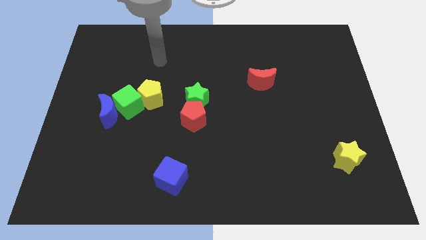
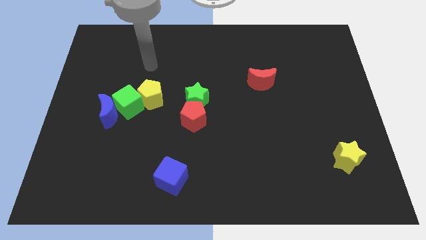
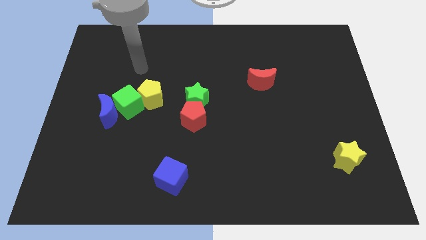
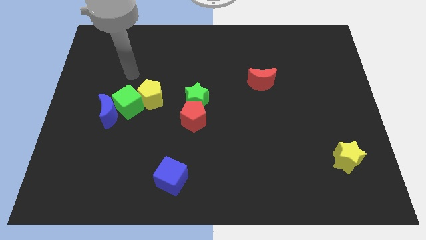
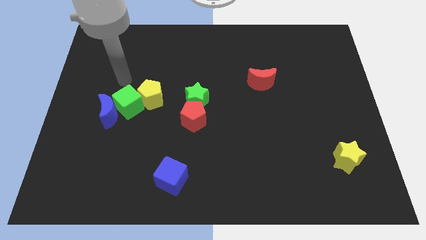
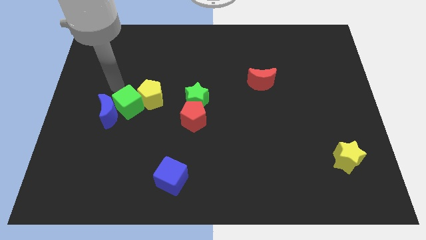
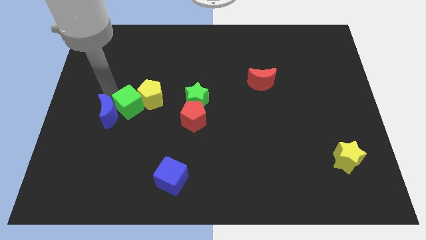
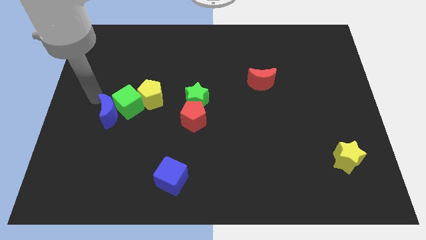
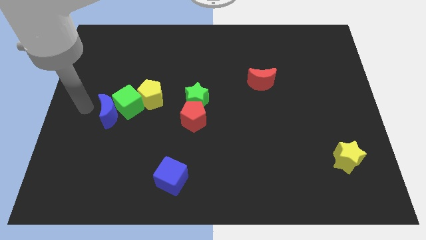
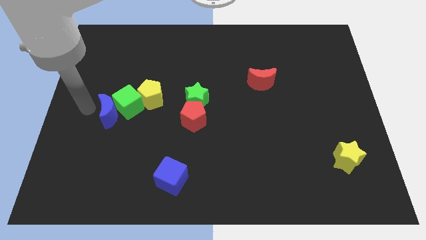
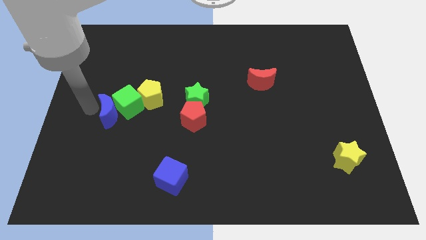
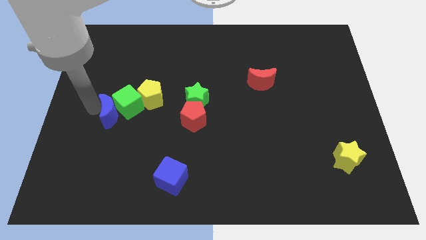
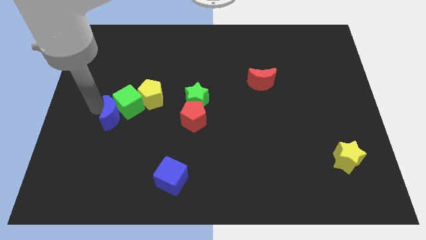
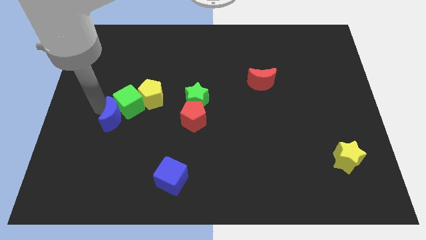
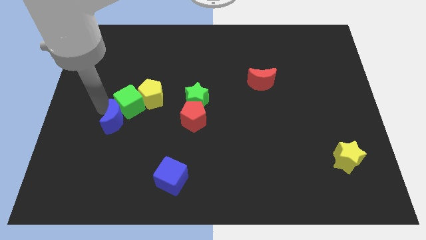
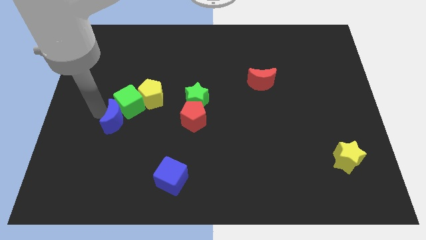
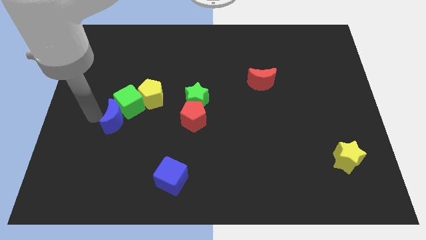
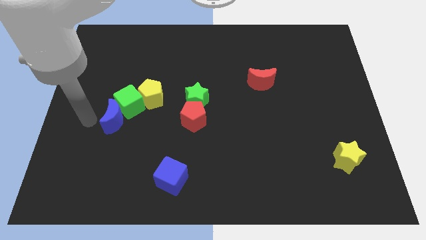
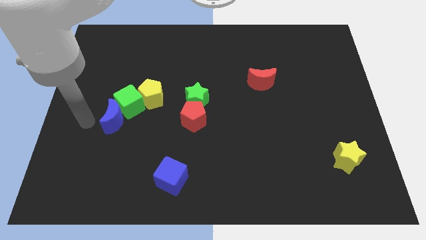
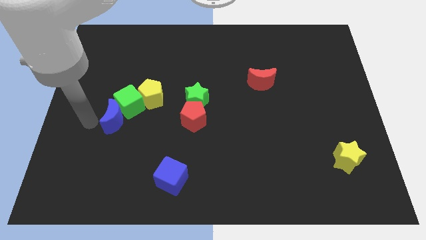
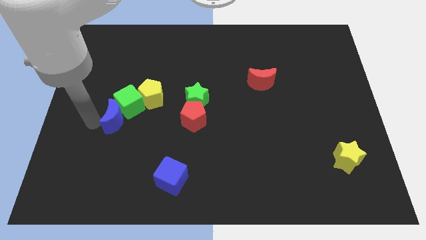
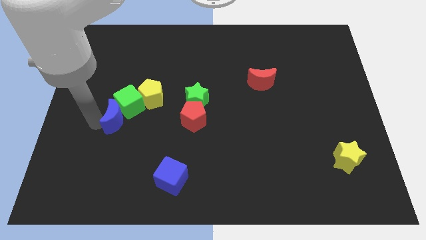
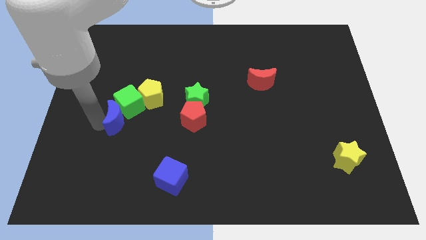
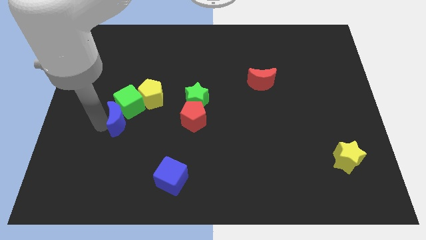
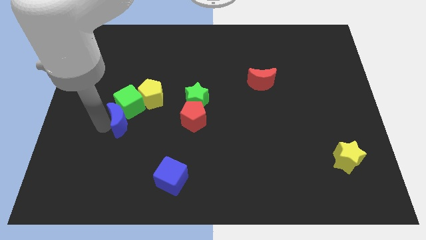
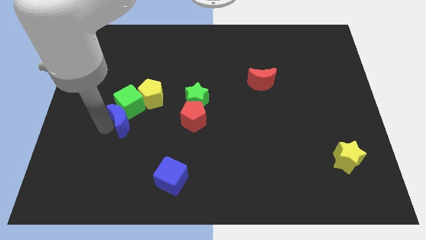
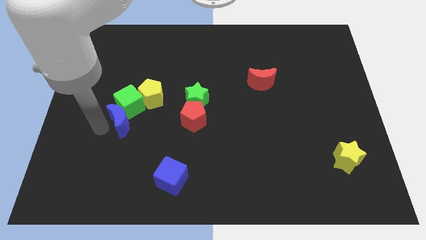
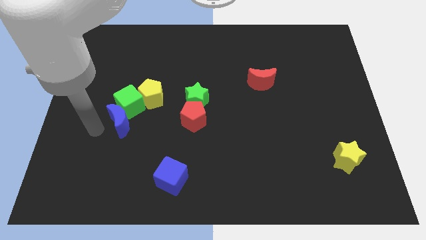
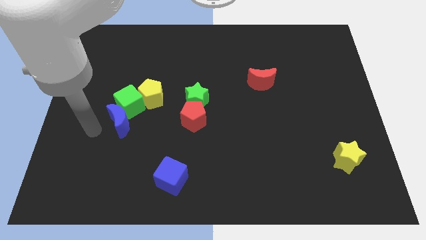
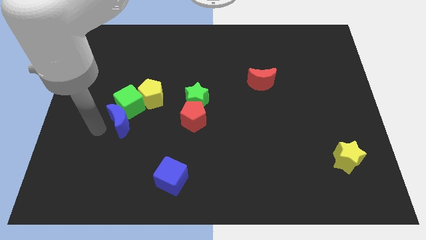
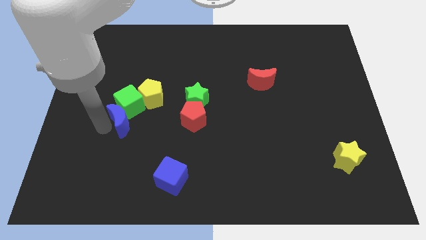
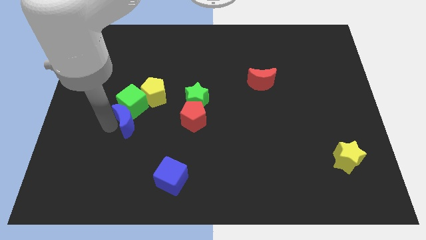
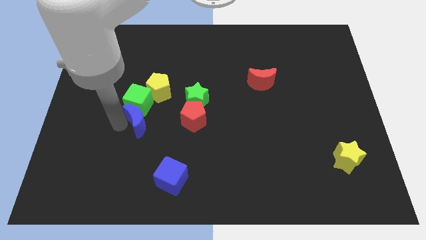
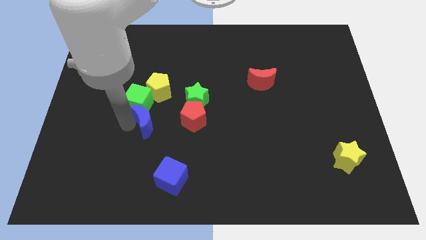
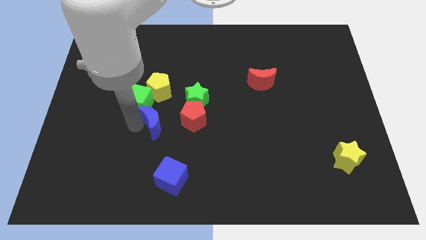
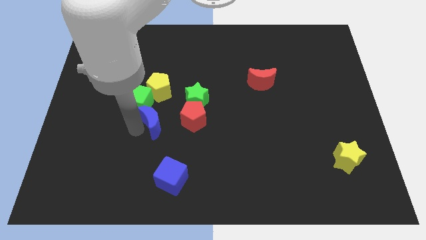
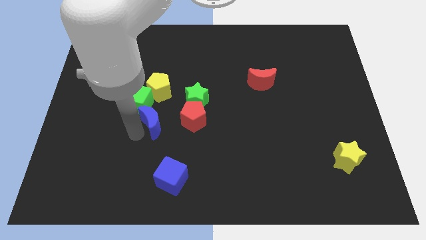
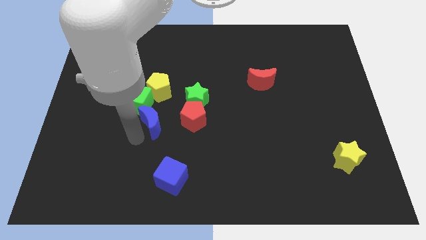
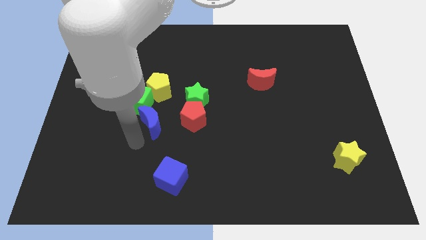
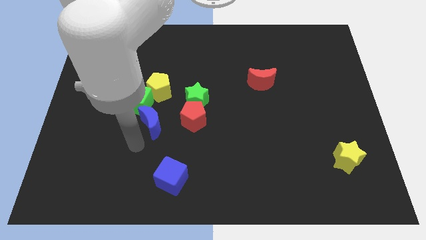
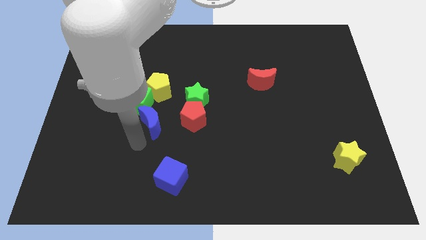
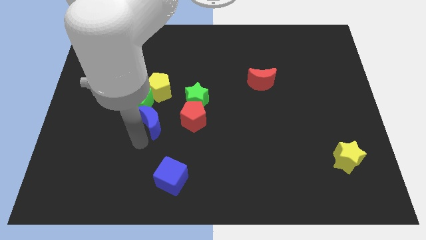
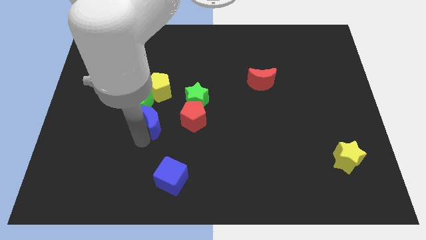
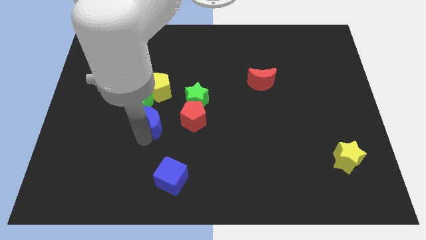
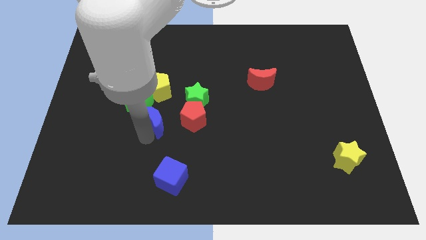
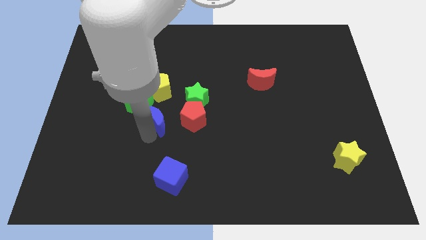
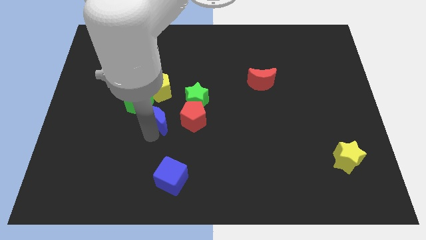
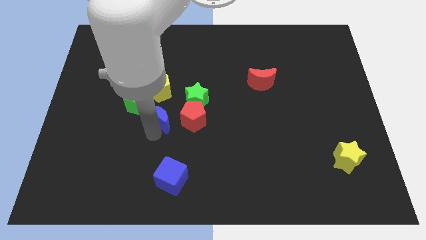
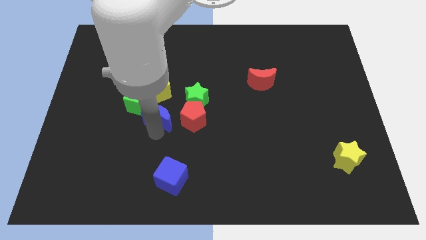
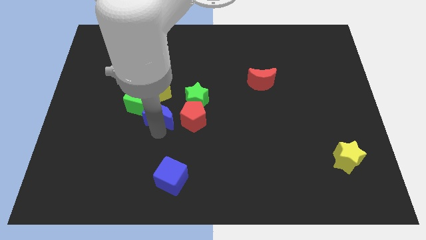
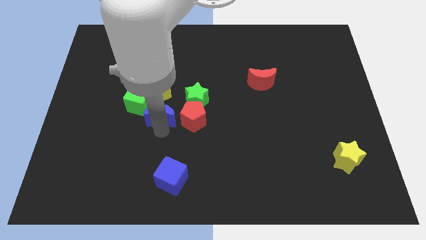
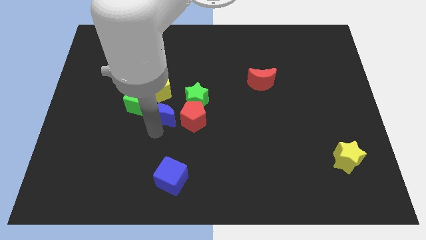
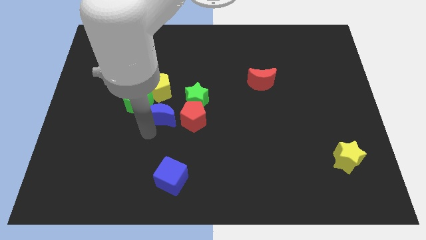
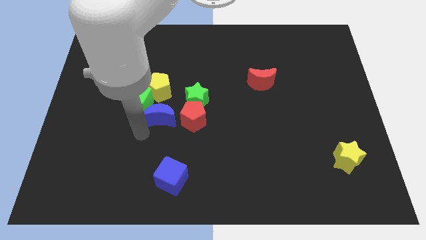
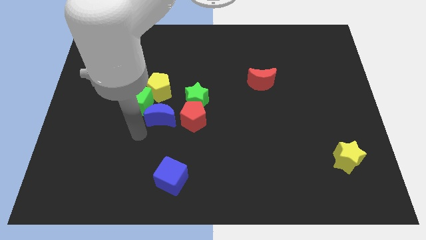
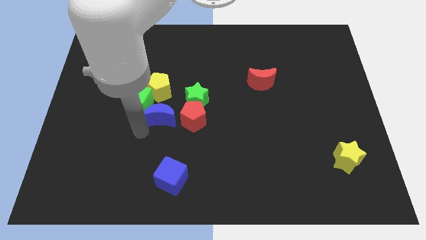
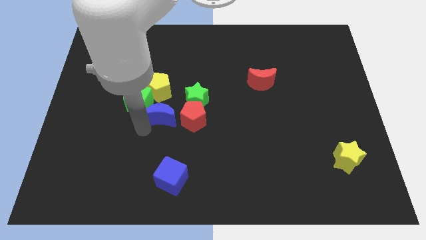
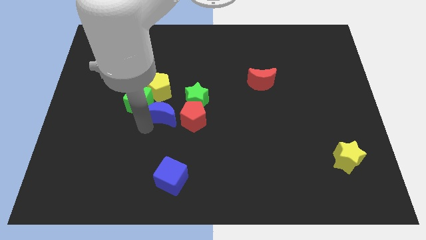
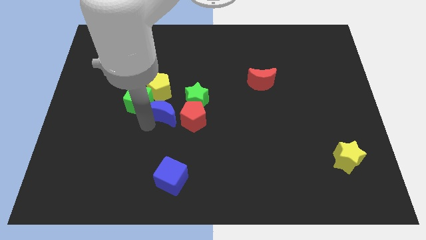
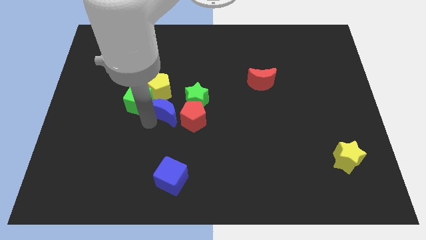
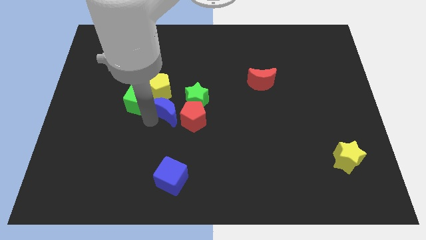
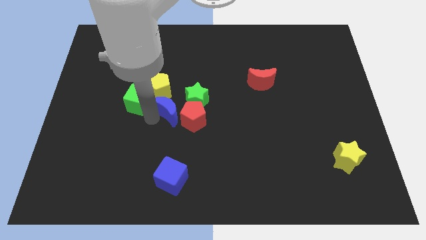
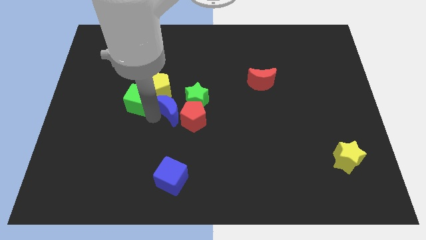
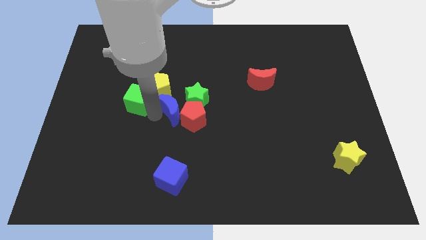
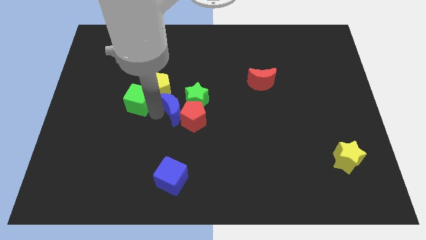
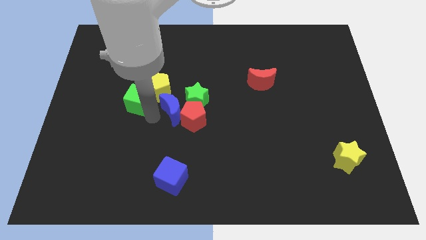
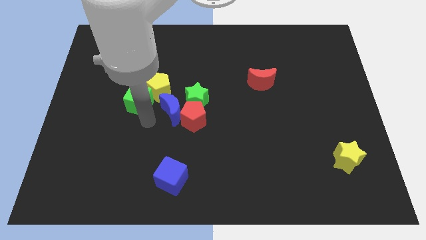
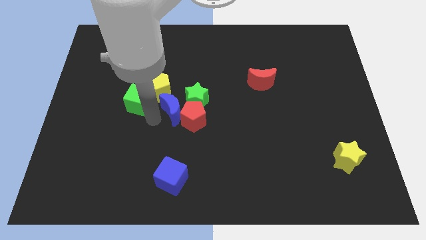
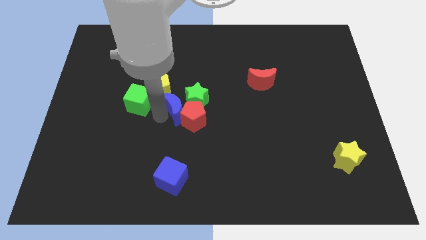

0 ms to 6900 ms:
slide the blue moon to the green star

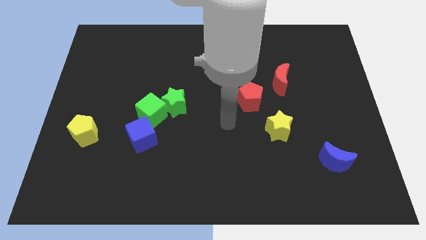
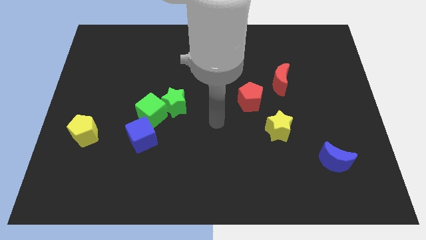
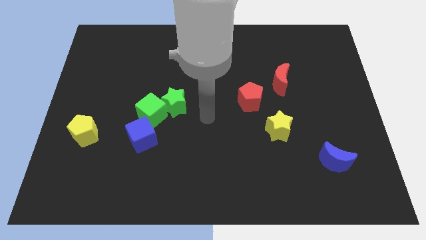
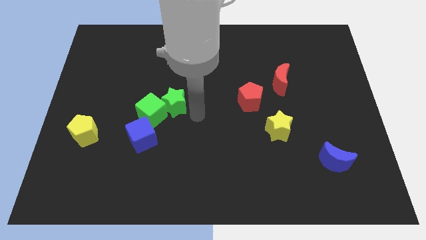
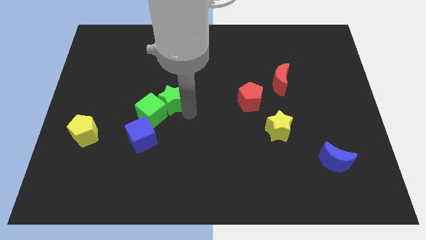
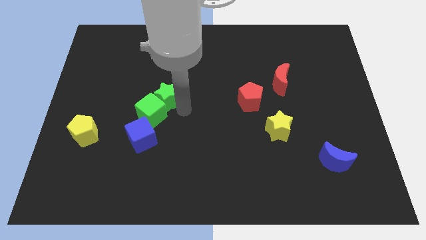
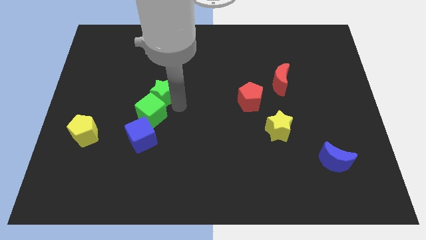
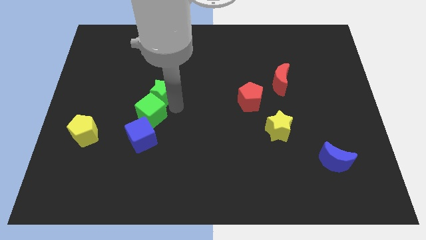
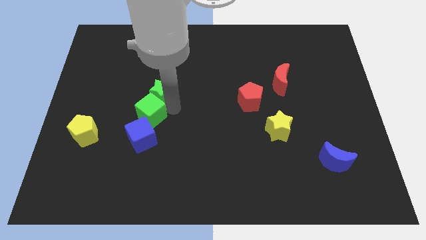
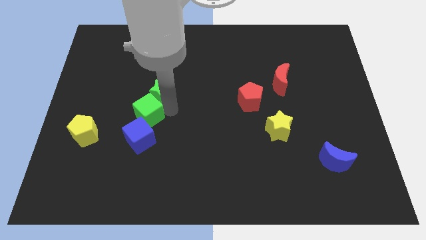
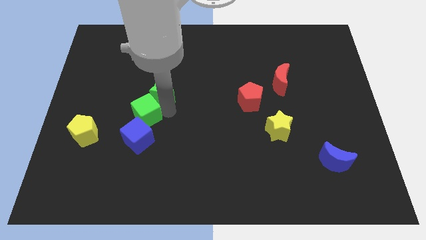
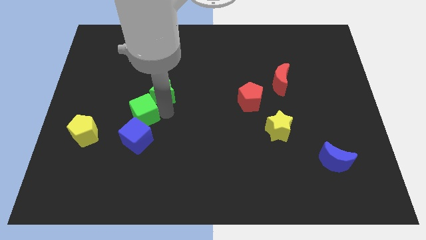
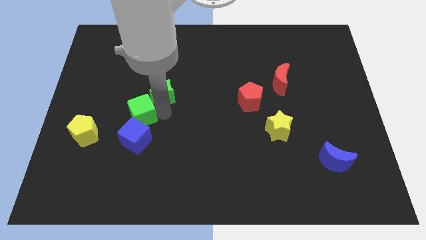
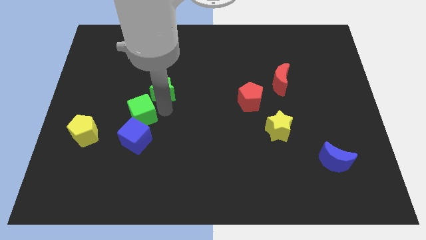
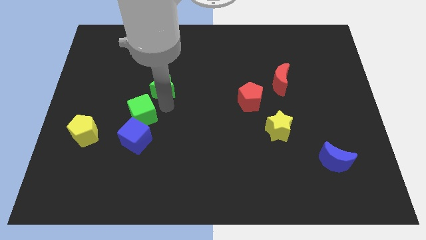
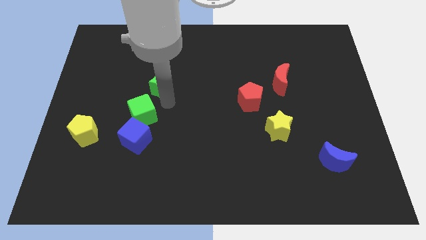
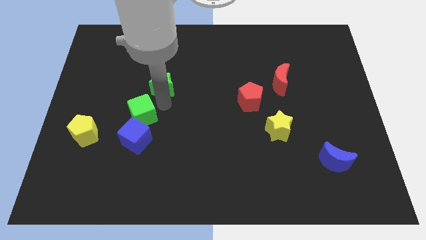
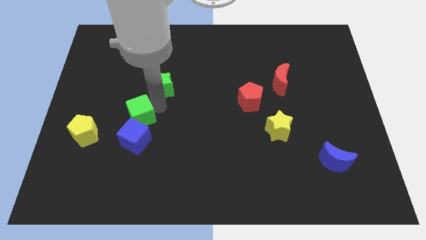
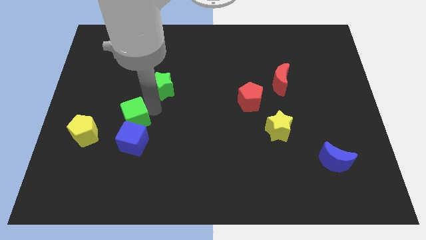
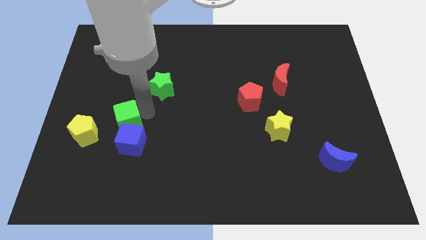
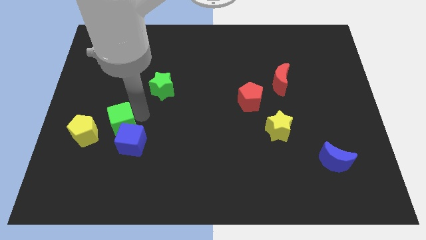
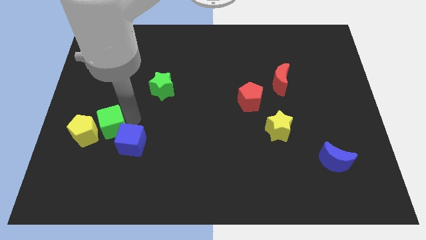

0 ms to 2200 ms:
push the green cube to the yellow pentagon
